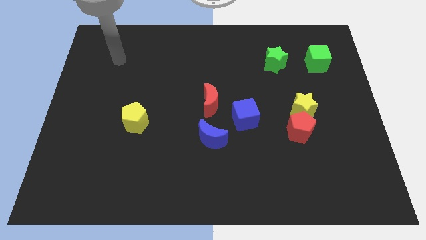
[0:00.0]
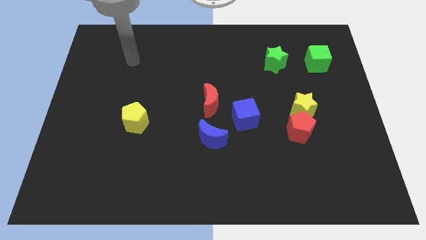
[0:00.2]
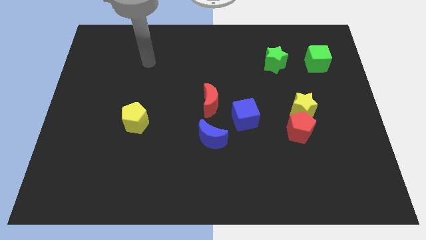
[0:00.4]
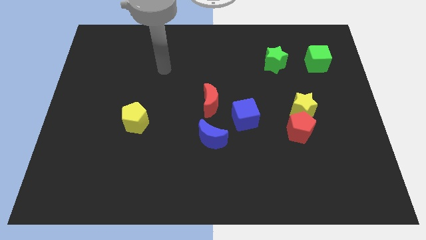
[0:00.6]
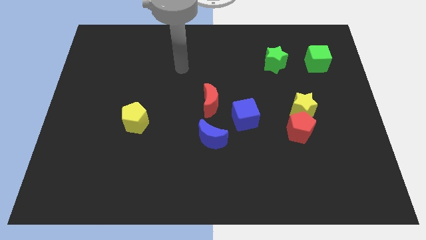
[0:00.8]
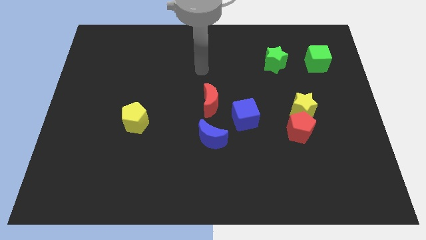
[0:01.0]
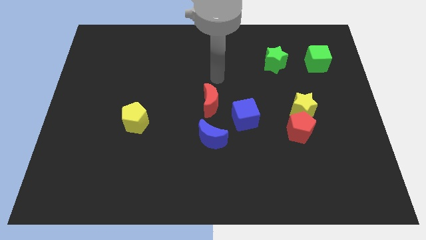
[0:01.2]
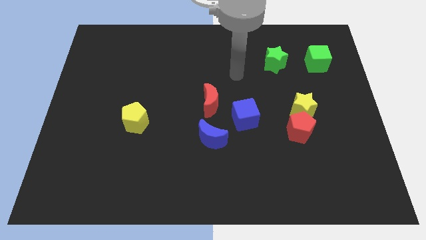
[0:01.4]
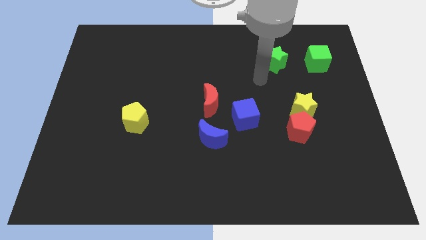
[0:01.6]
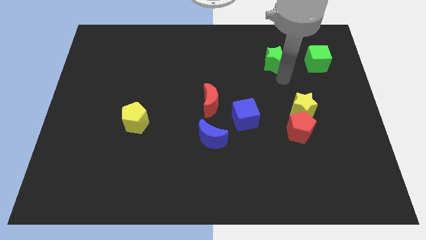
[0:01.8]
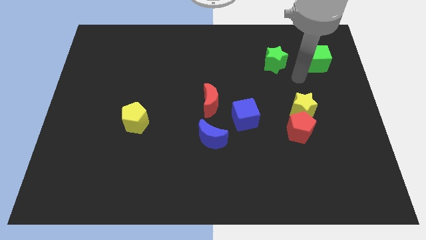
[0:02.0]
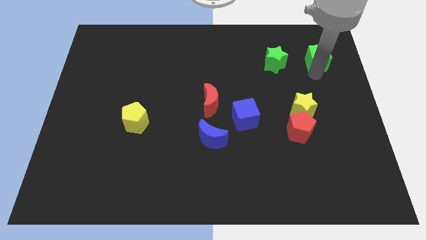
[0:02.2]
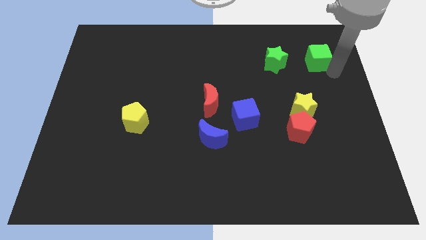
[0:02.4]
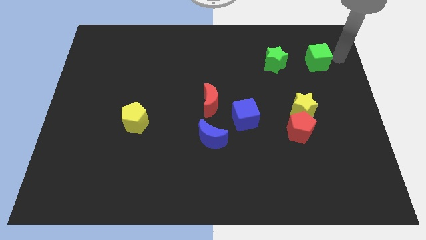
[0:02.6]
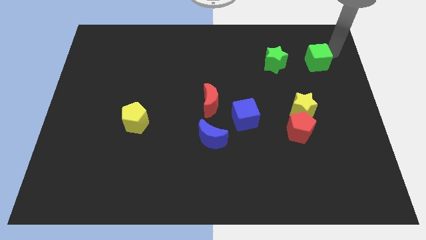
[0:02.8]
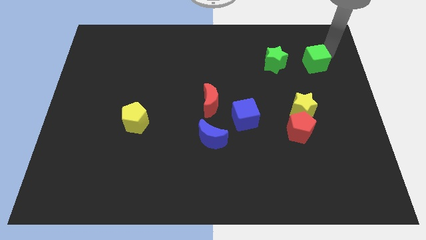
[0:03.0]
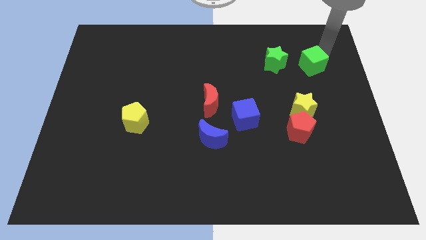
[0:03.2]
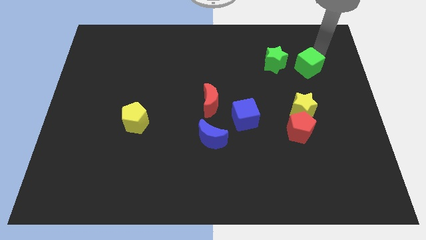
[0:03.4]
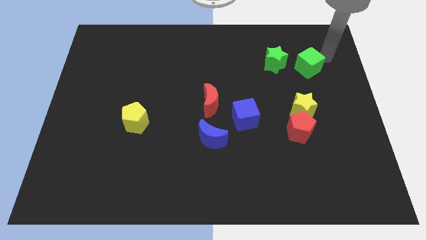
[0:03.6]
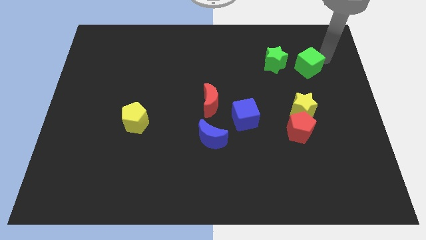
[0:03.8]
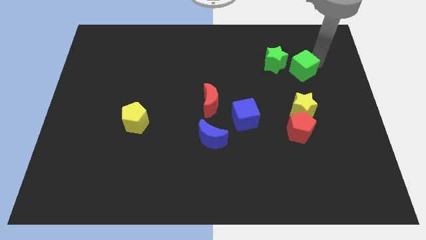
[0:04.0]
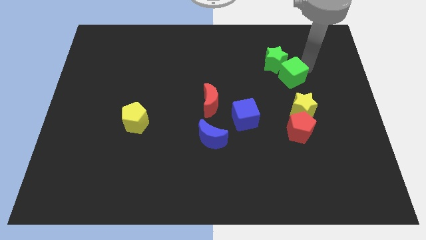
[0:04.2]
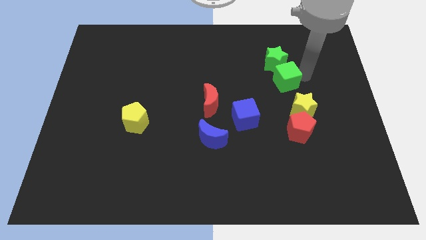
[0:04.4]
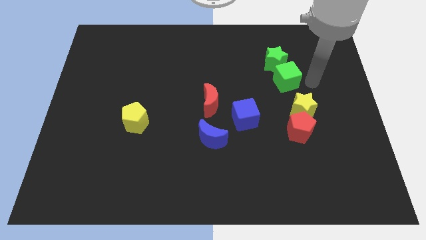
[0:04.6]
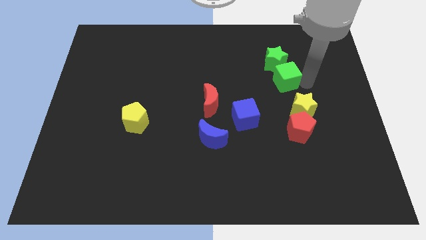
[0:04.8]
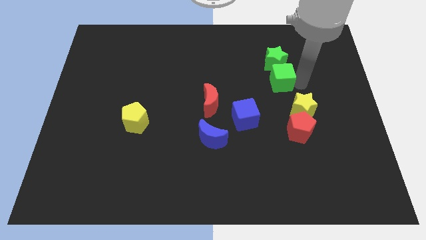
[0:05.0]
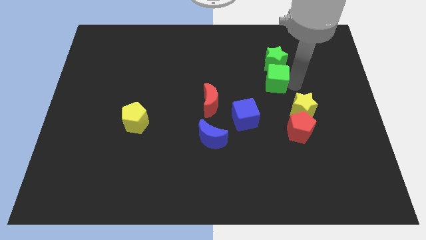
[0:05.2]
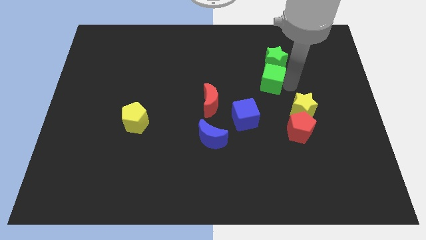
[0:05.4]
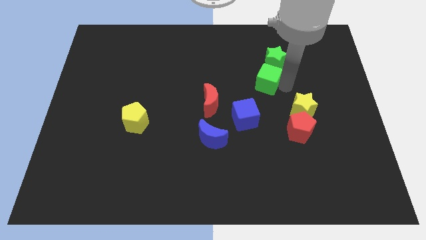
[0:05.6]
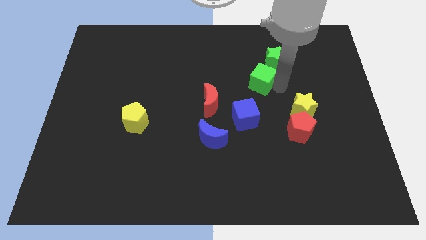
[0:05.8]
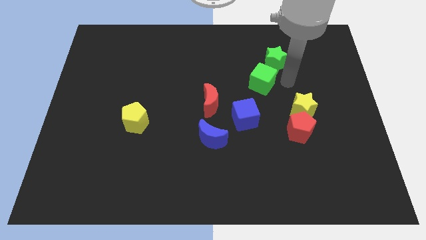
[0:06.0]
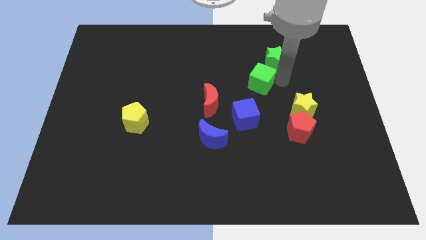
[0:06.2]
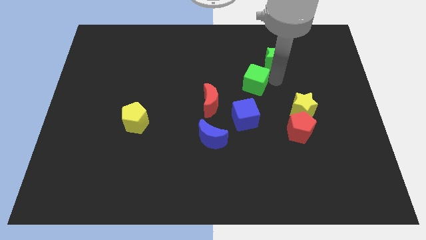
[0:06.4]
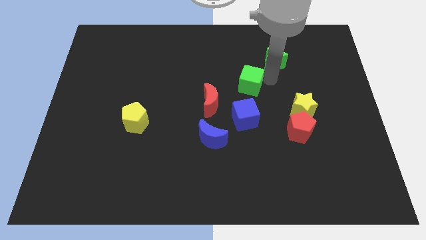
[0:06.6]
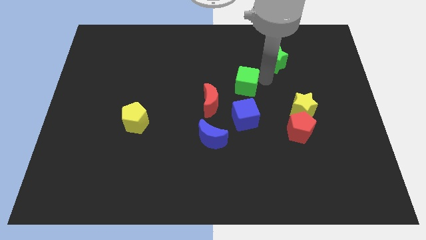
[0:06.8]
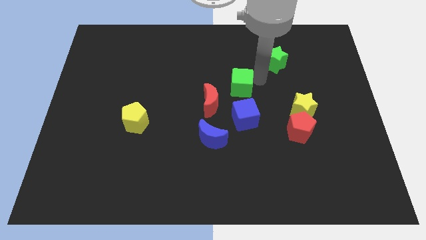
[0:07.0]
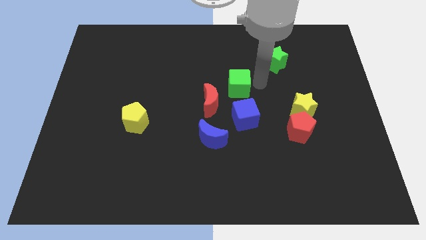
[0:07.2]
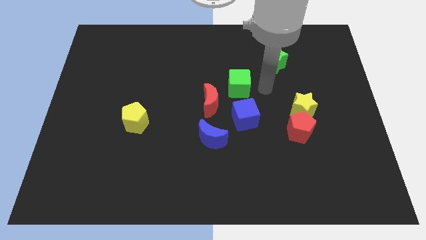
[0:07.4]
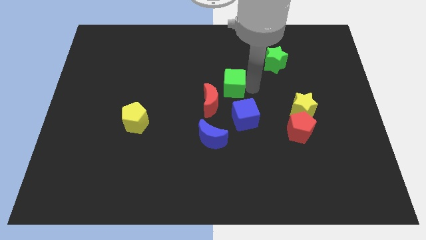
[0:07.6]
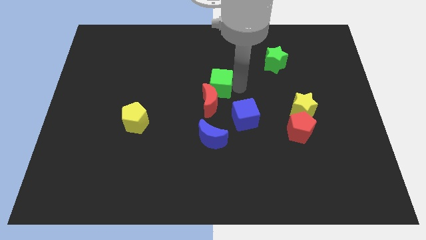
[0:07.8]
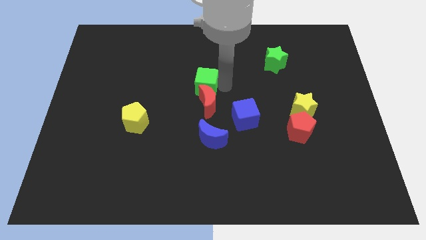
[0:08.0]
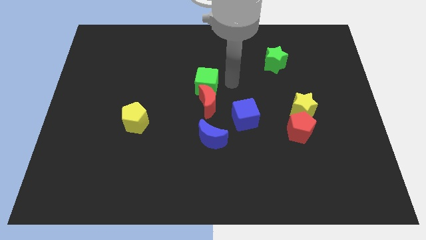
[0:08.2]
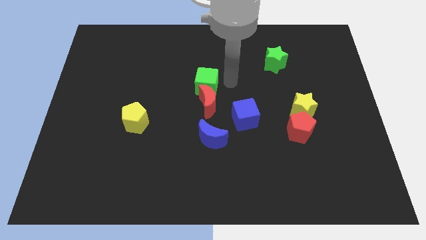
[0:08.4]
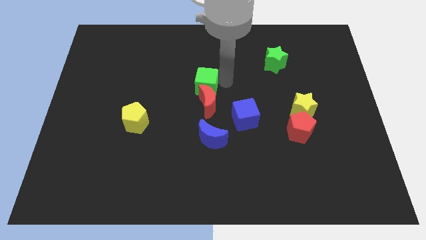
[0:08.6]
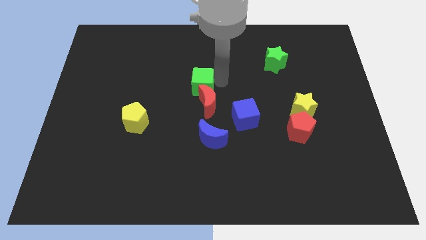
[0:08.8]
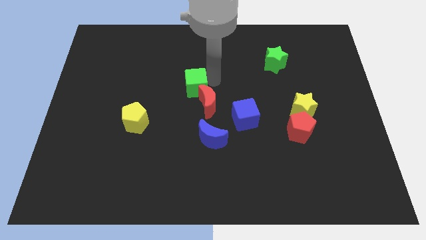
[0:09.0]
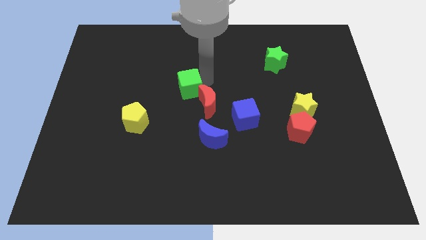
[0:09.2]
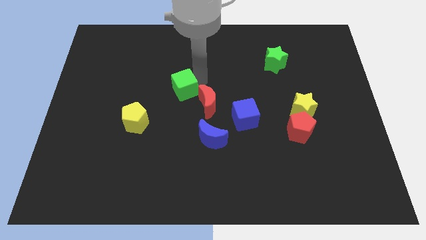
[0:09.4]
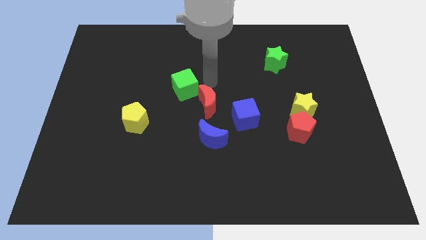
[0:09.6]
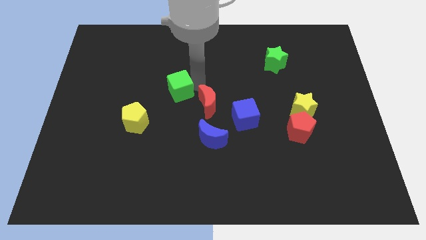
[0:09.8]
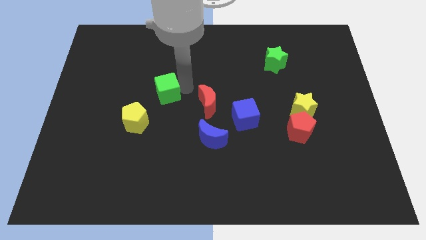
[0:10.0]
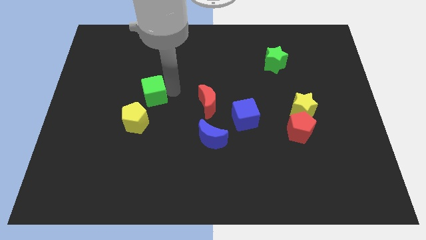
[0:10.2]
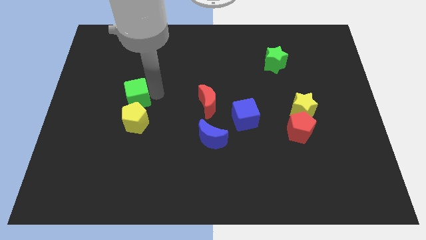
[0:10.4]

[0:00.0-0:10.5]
put the green cube diagonally up and to the left of the yellow pentagon

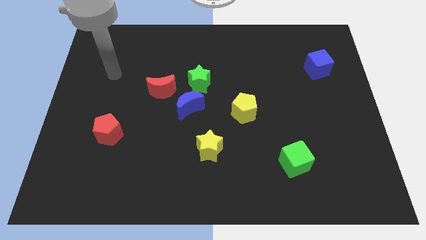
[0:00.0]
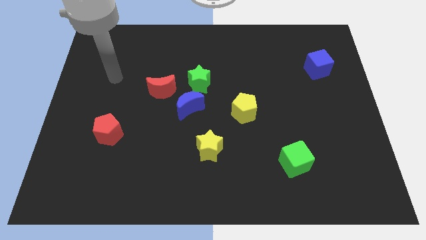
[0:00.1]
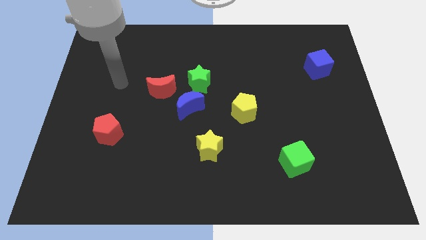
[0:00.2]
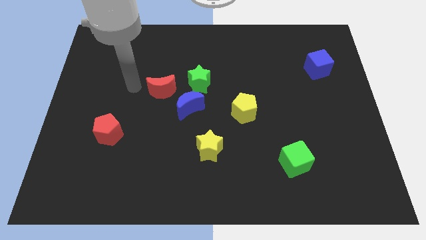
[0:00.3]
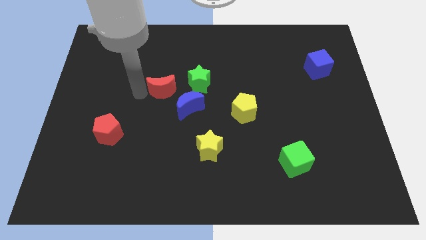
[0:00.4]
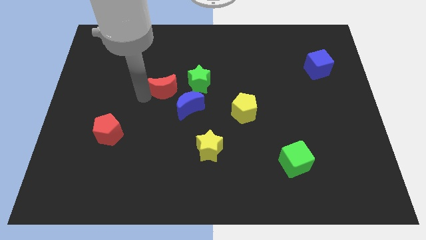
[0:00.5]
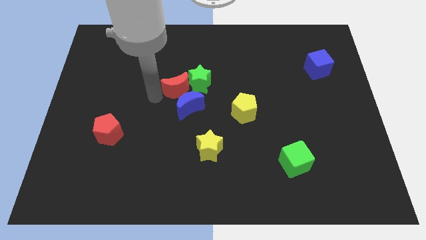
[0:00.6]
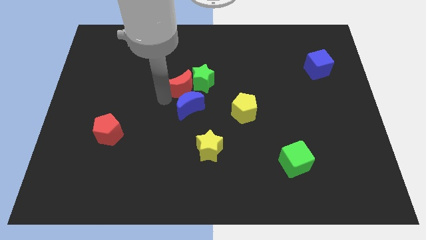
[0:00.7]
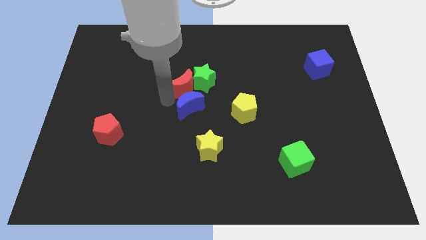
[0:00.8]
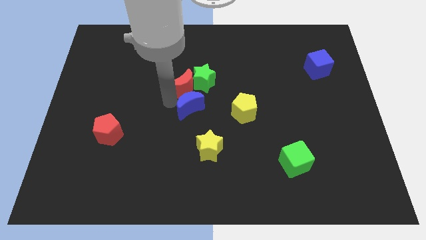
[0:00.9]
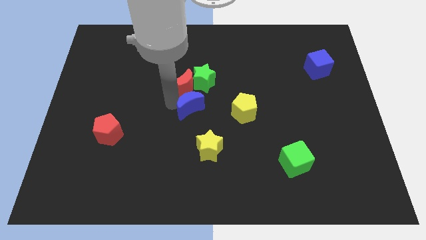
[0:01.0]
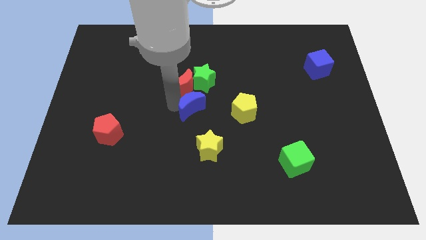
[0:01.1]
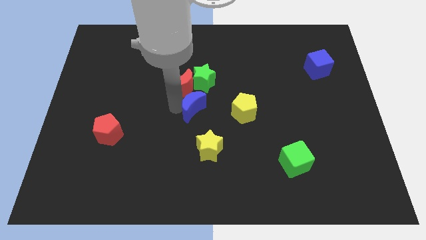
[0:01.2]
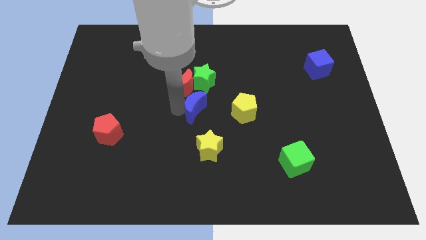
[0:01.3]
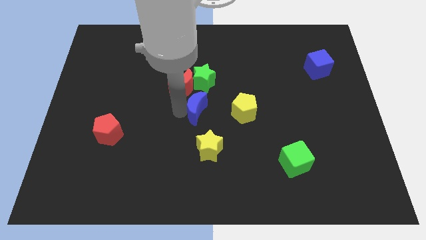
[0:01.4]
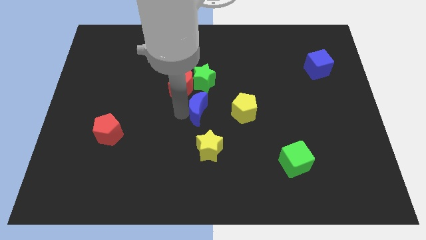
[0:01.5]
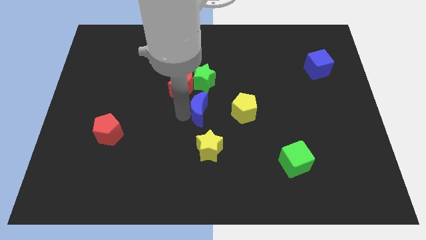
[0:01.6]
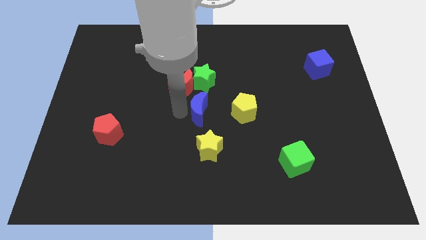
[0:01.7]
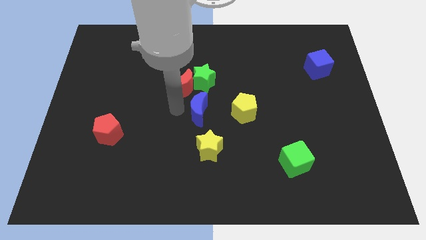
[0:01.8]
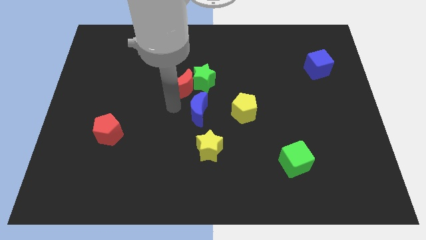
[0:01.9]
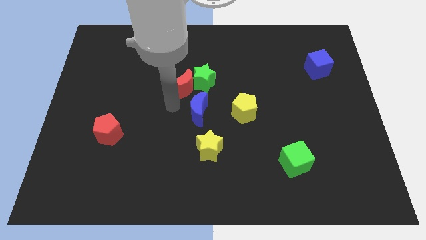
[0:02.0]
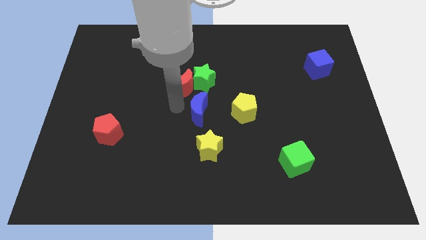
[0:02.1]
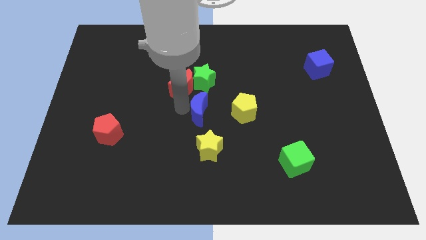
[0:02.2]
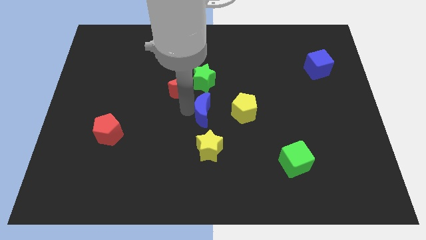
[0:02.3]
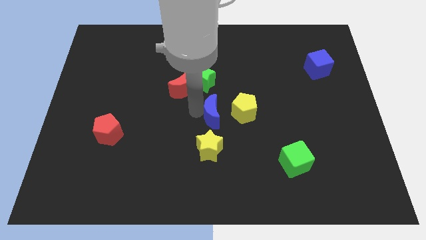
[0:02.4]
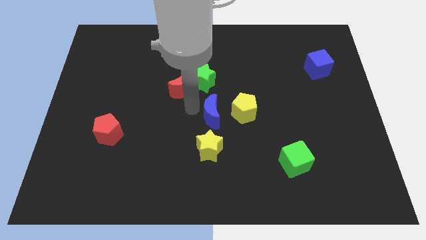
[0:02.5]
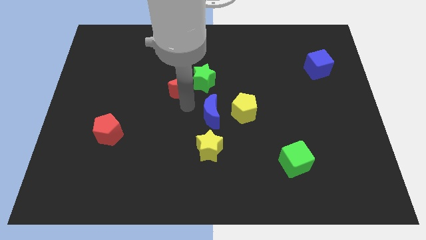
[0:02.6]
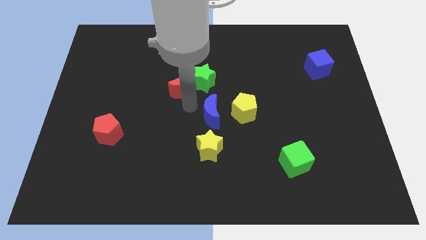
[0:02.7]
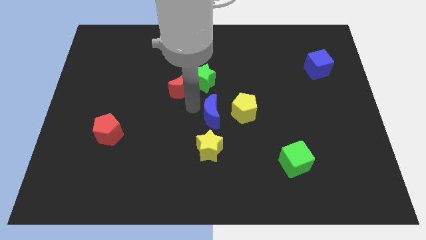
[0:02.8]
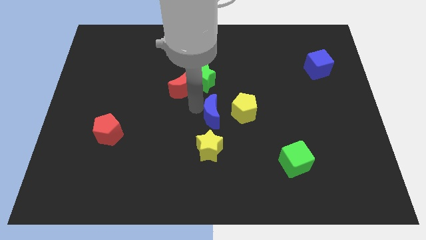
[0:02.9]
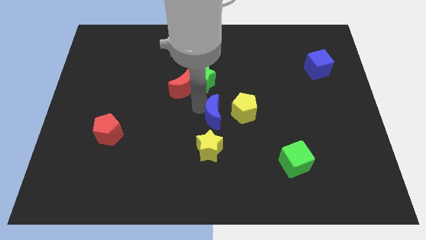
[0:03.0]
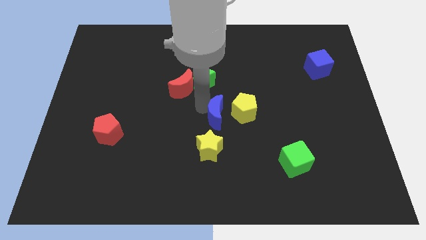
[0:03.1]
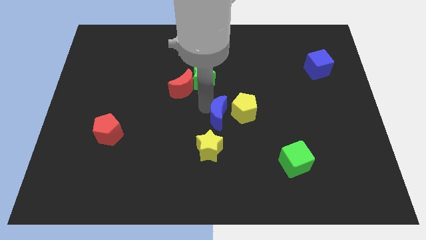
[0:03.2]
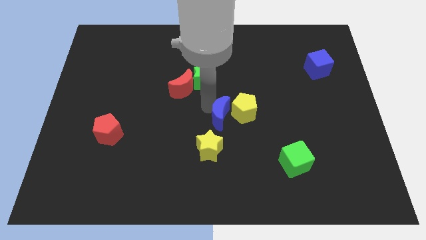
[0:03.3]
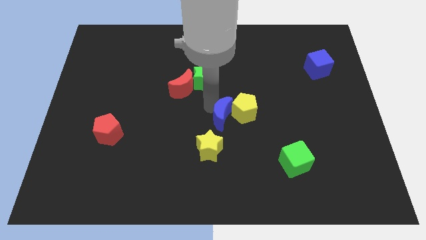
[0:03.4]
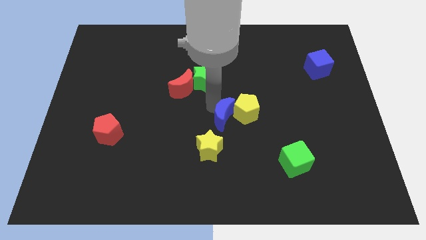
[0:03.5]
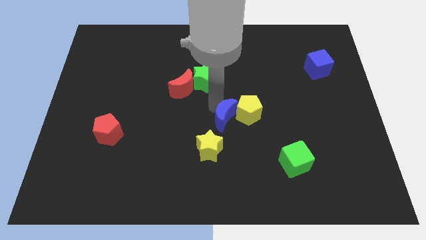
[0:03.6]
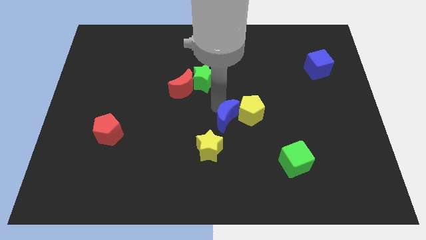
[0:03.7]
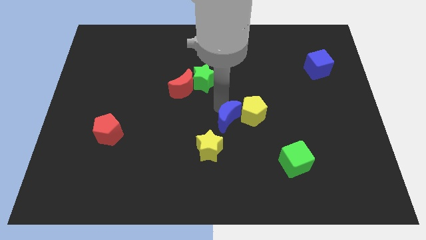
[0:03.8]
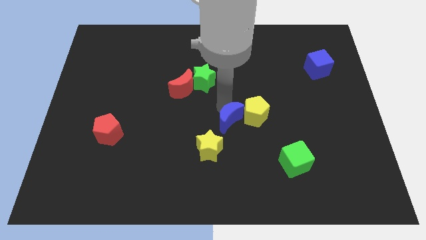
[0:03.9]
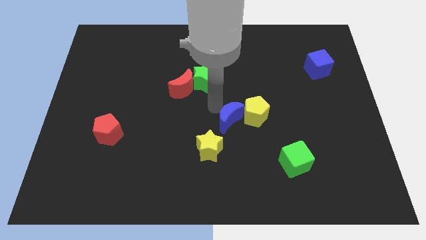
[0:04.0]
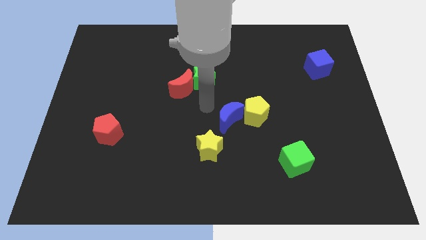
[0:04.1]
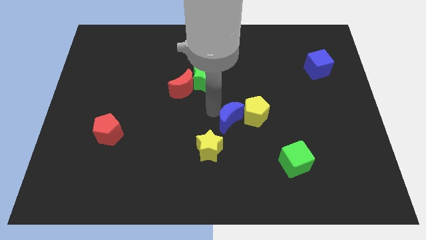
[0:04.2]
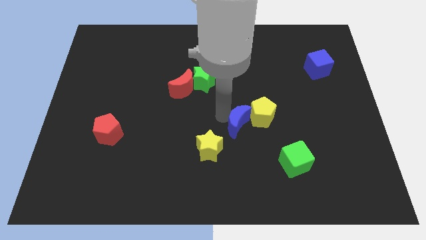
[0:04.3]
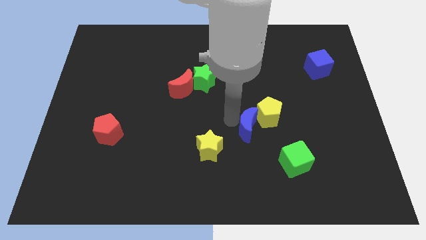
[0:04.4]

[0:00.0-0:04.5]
put the blue moon diagonally up and to the left of the green cube
